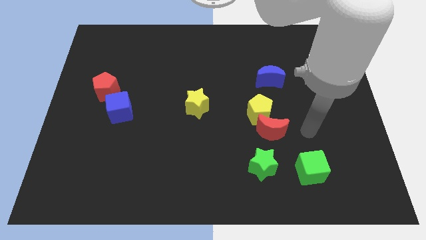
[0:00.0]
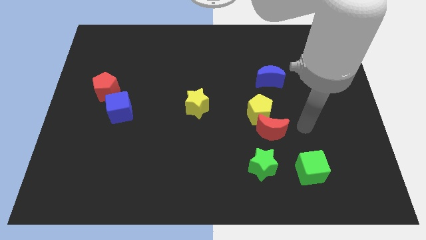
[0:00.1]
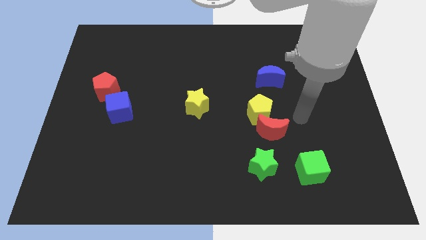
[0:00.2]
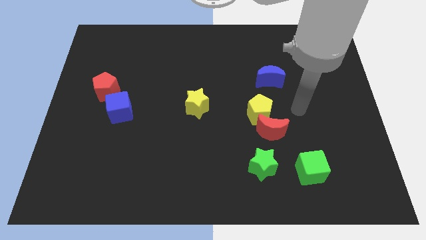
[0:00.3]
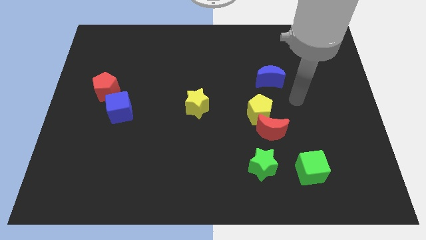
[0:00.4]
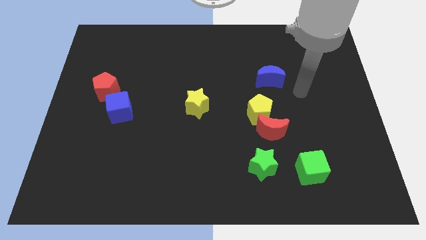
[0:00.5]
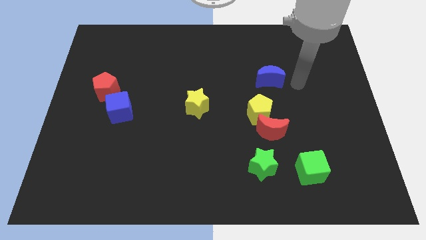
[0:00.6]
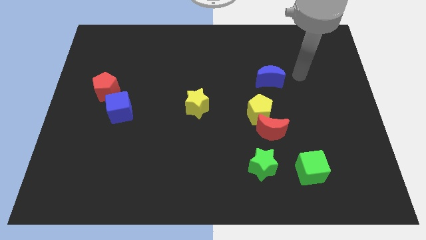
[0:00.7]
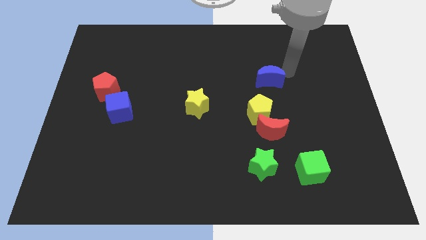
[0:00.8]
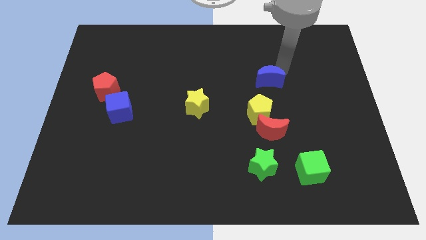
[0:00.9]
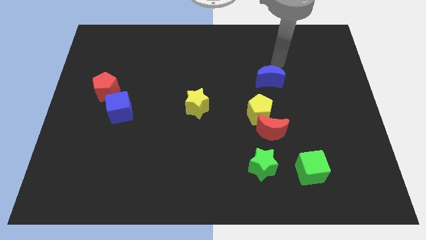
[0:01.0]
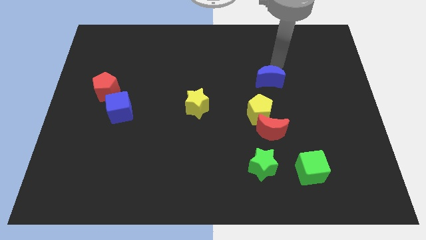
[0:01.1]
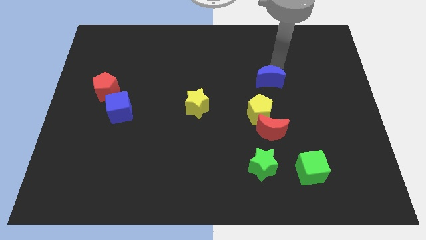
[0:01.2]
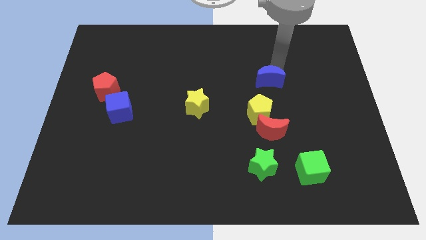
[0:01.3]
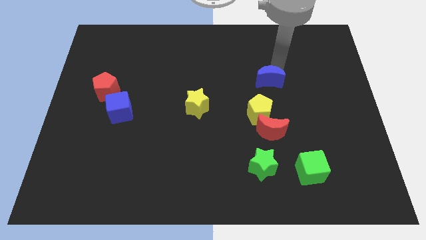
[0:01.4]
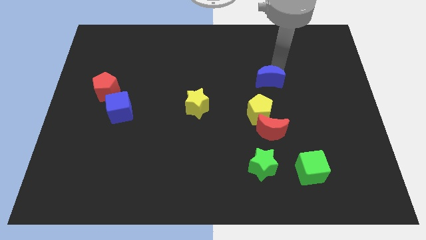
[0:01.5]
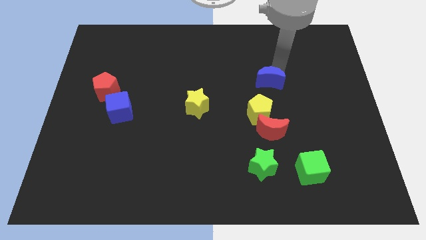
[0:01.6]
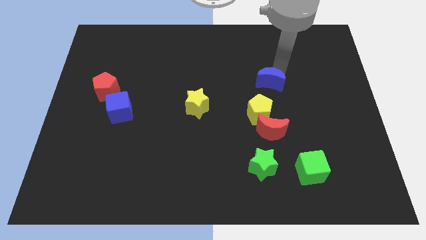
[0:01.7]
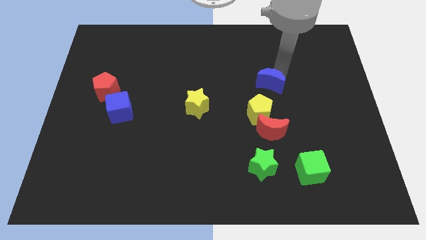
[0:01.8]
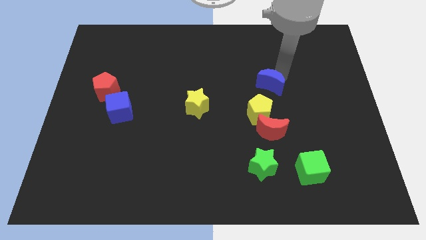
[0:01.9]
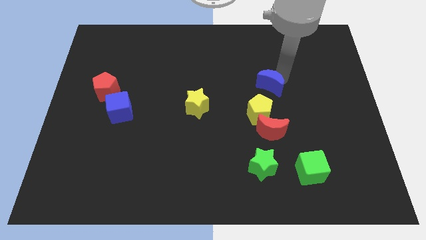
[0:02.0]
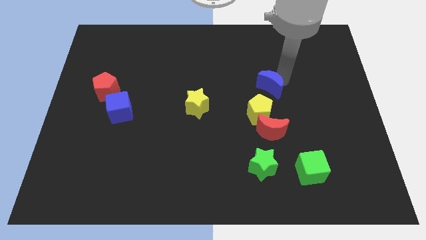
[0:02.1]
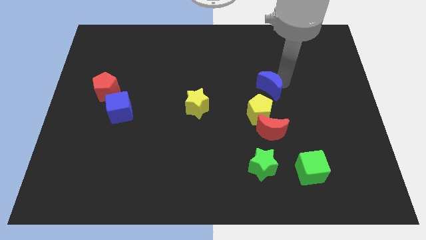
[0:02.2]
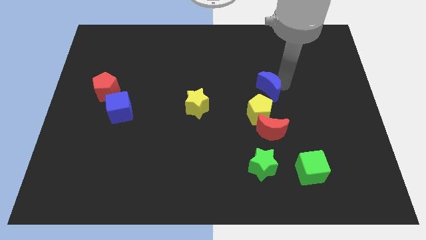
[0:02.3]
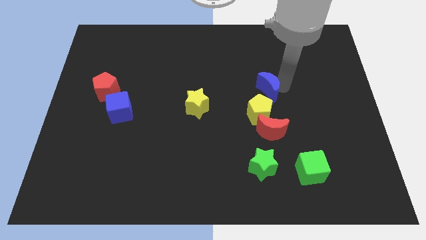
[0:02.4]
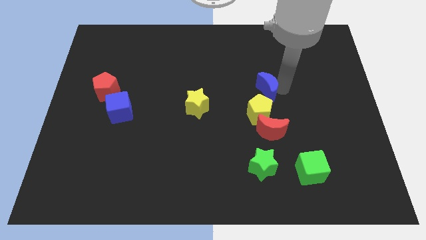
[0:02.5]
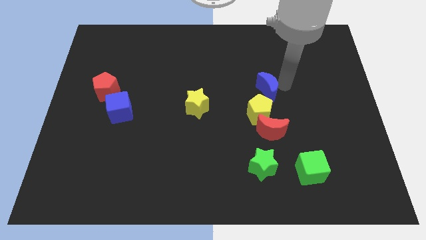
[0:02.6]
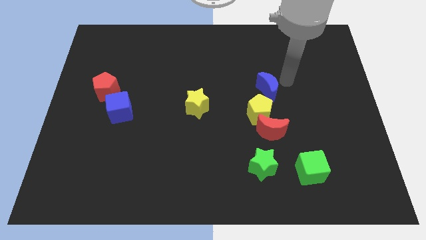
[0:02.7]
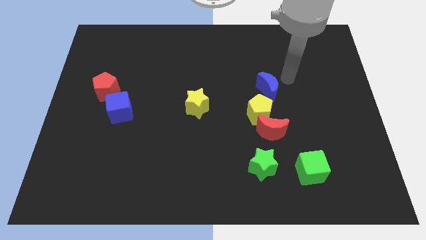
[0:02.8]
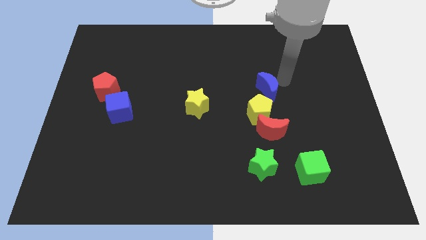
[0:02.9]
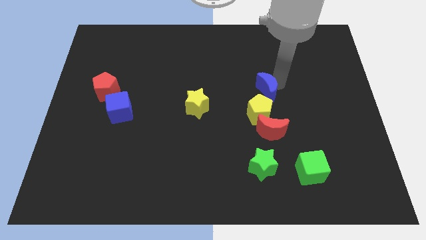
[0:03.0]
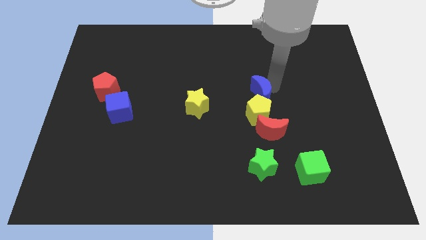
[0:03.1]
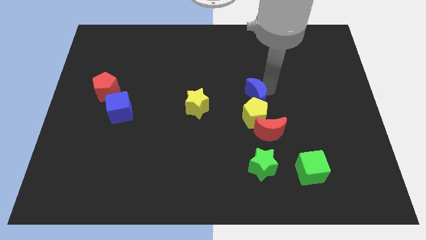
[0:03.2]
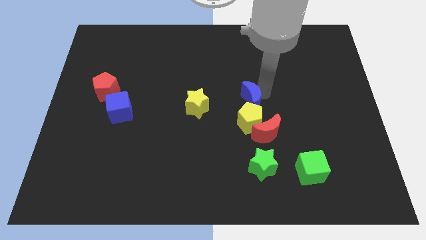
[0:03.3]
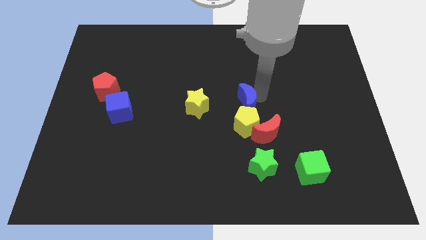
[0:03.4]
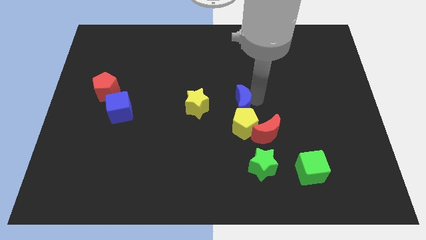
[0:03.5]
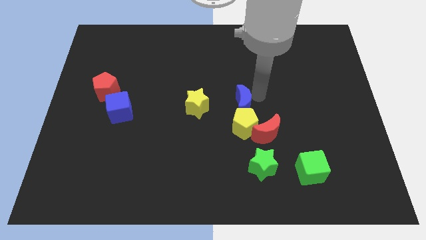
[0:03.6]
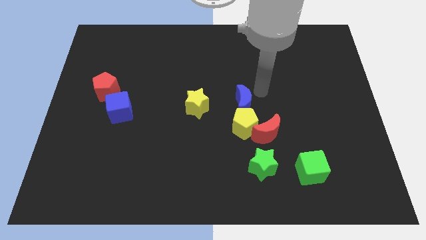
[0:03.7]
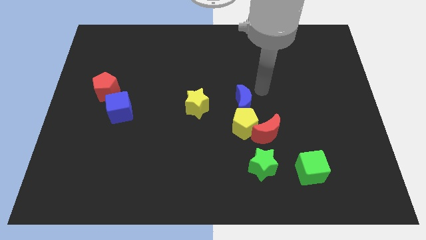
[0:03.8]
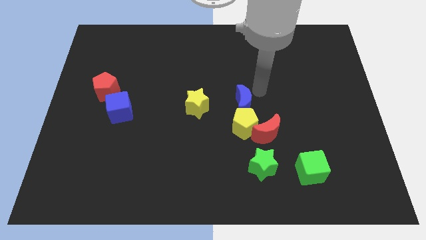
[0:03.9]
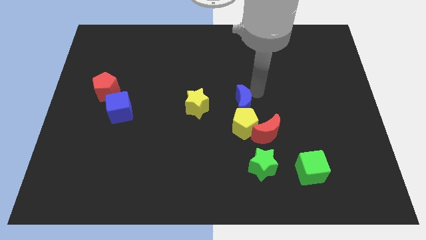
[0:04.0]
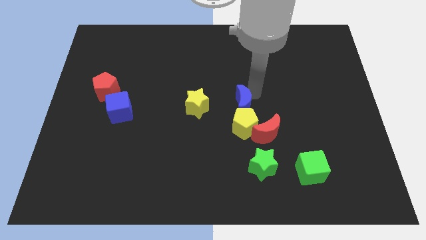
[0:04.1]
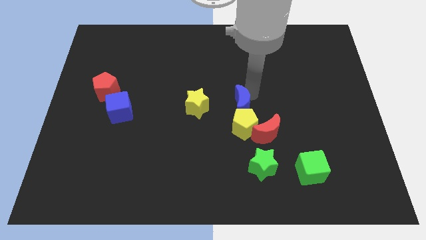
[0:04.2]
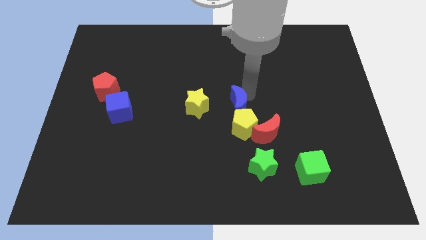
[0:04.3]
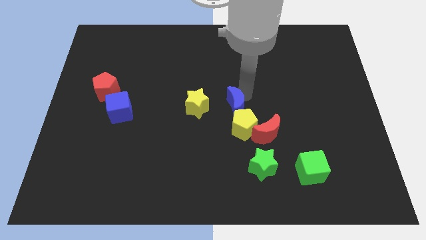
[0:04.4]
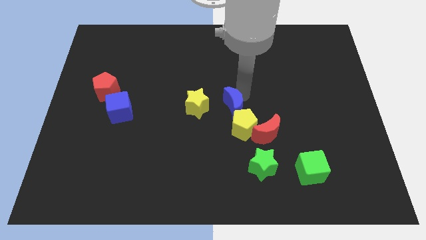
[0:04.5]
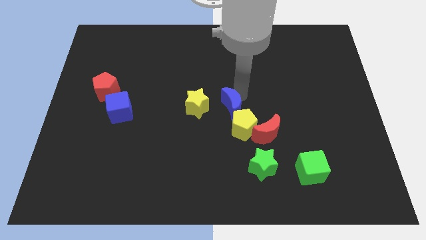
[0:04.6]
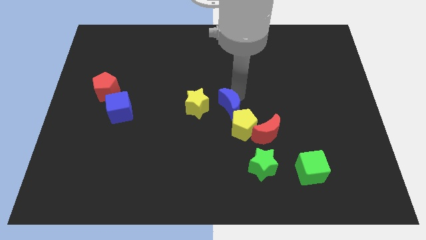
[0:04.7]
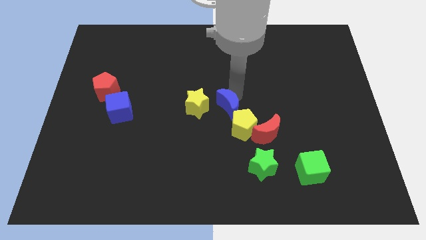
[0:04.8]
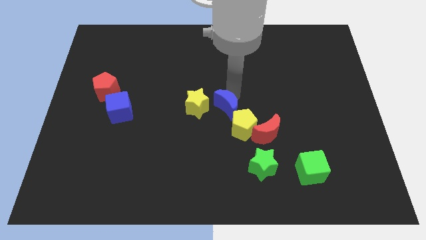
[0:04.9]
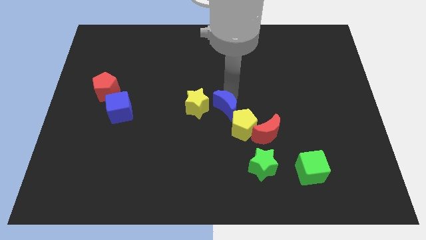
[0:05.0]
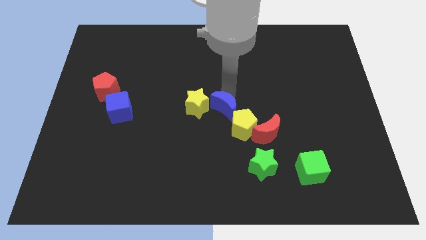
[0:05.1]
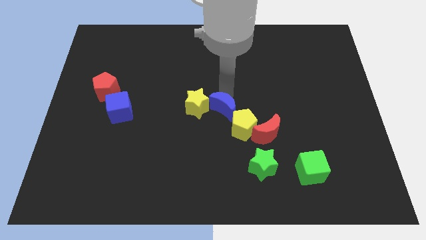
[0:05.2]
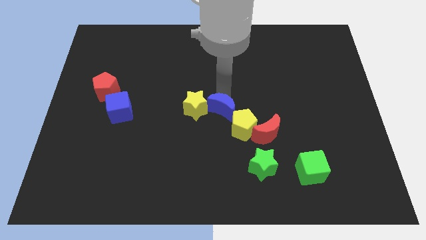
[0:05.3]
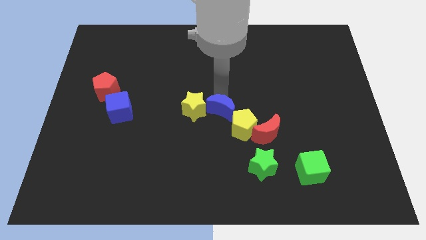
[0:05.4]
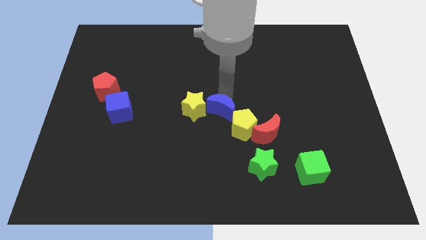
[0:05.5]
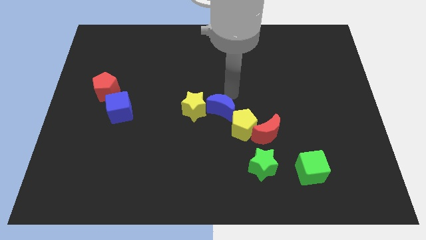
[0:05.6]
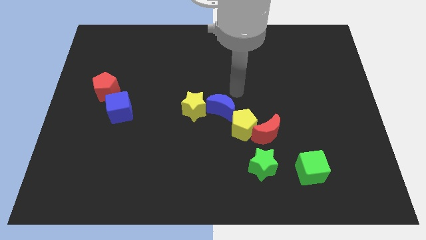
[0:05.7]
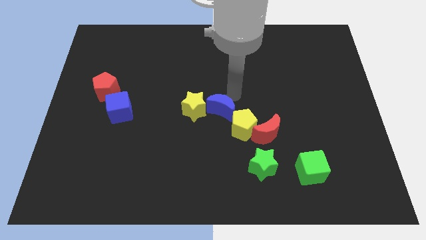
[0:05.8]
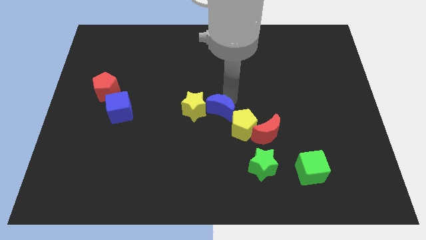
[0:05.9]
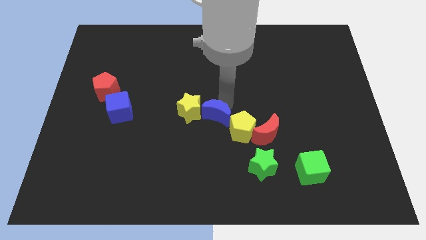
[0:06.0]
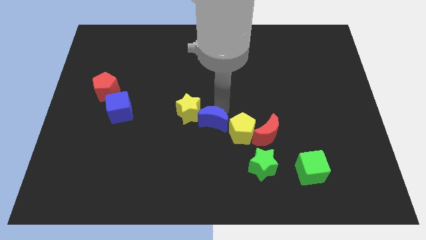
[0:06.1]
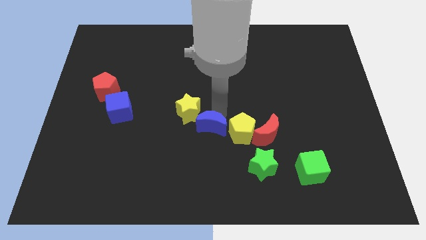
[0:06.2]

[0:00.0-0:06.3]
slide the blue moon downwards and left diagonally

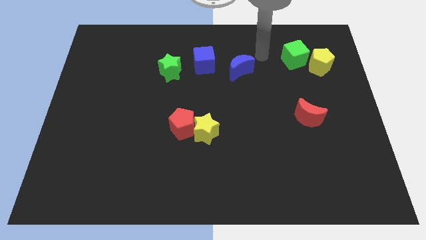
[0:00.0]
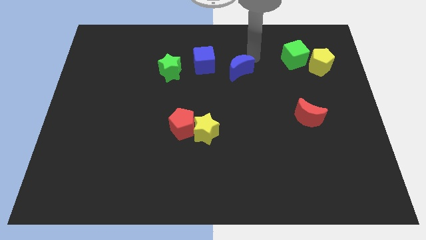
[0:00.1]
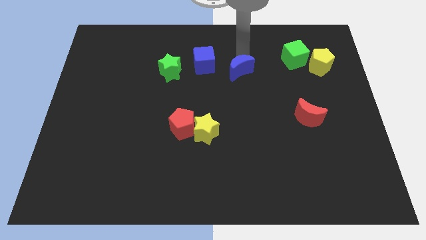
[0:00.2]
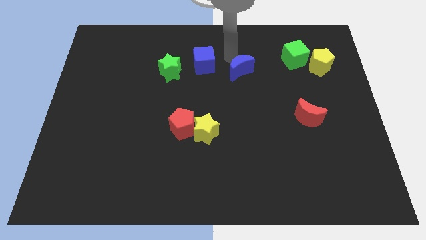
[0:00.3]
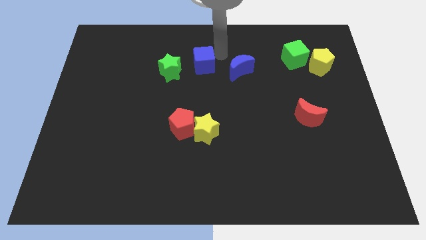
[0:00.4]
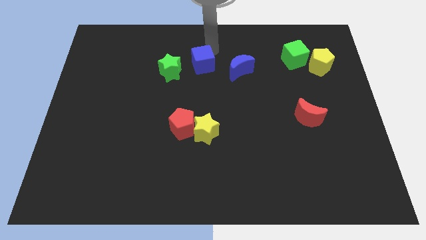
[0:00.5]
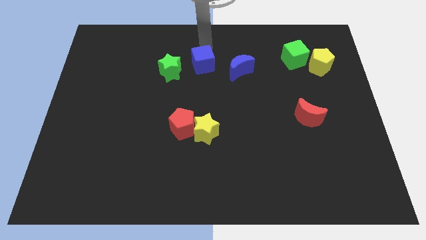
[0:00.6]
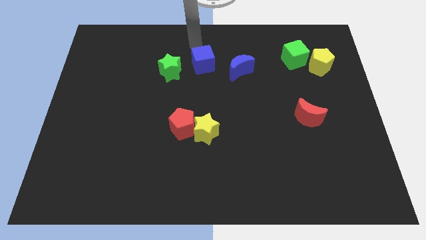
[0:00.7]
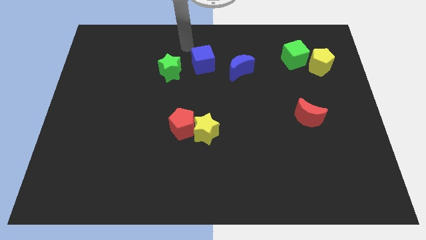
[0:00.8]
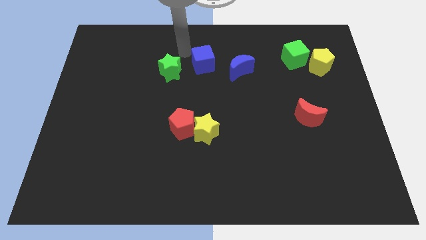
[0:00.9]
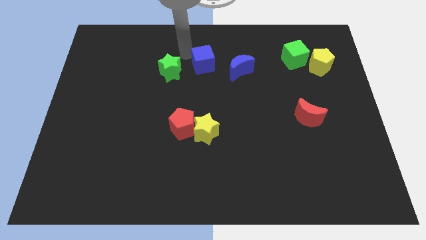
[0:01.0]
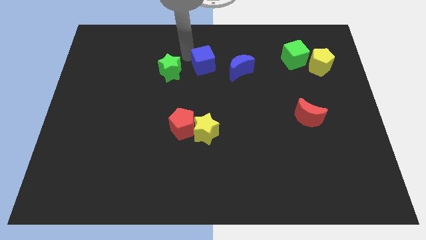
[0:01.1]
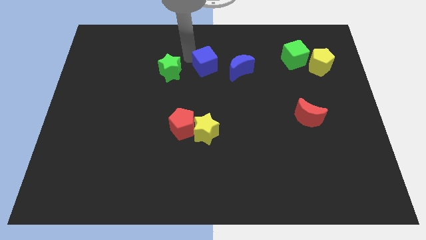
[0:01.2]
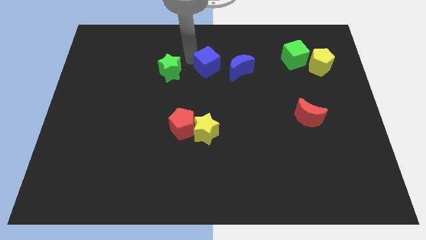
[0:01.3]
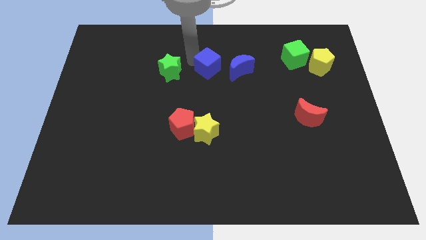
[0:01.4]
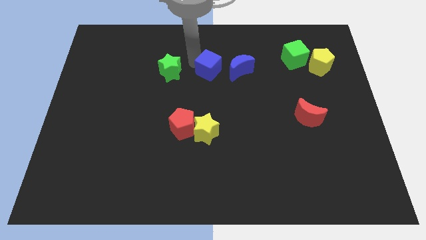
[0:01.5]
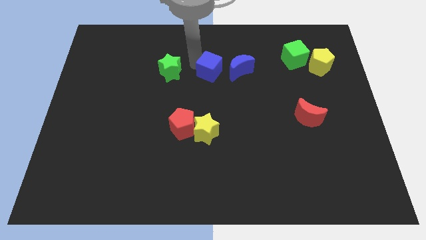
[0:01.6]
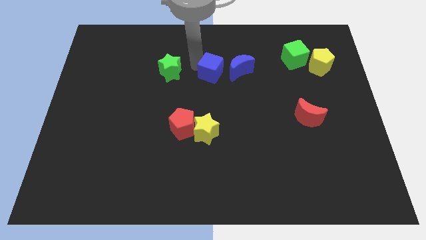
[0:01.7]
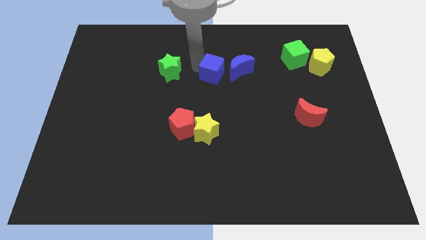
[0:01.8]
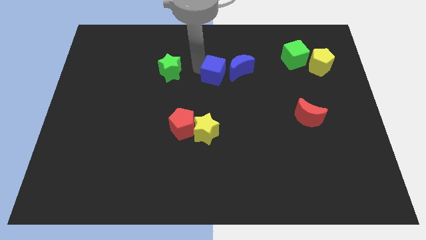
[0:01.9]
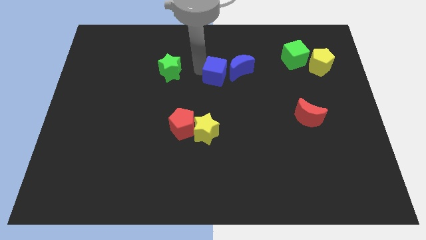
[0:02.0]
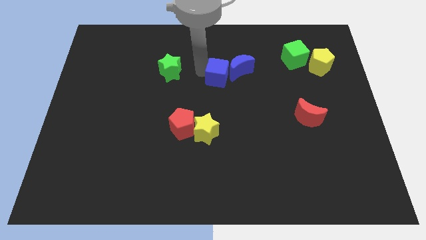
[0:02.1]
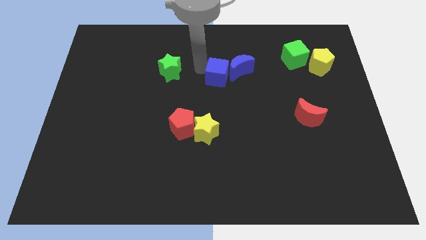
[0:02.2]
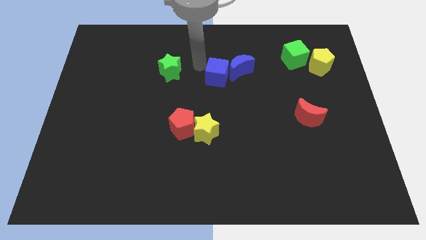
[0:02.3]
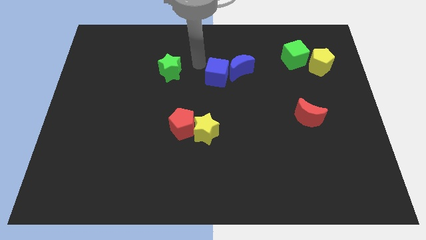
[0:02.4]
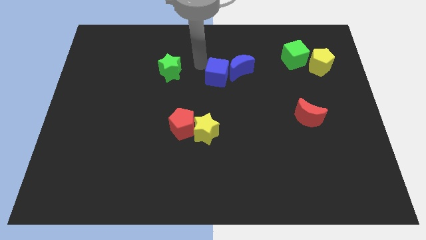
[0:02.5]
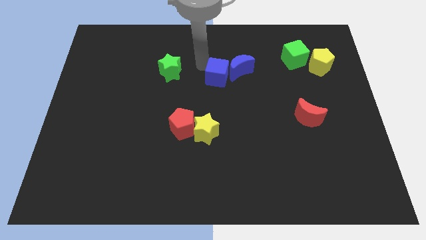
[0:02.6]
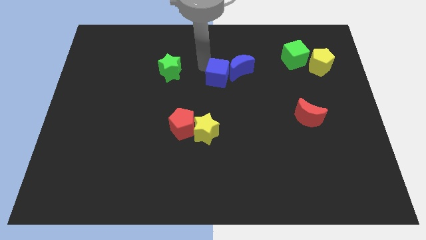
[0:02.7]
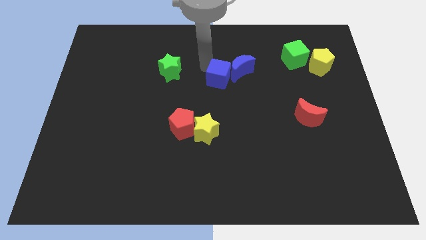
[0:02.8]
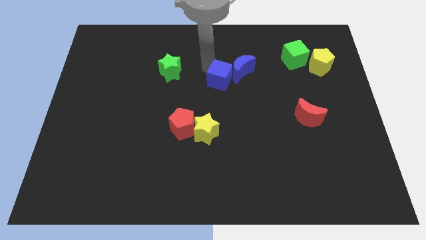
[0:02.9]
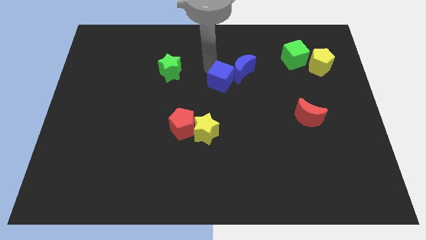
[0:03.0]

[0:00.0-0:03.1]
slightly slide the blue cube downwards and right
